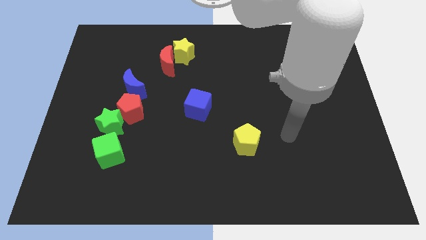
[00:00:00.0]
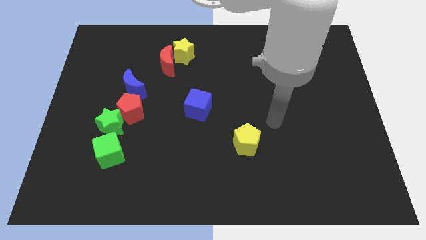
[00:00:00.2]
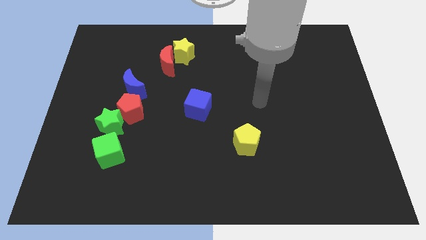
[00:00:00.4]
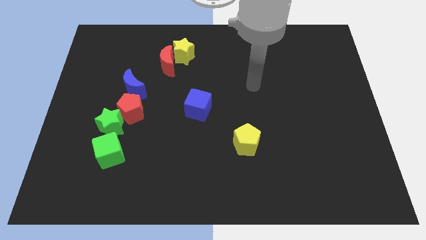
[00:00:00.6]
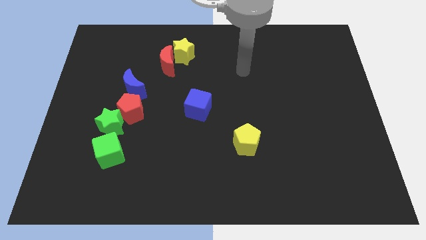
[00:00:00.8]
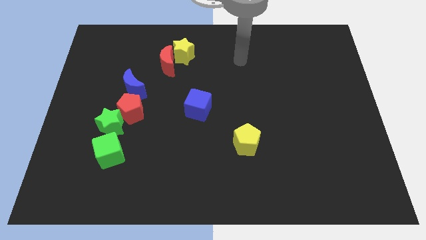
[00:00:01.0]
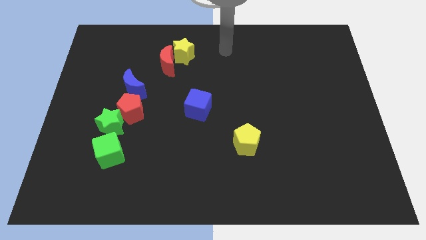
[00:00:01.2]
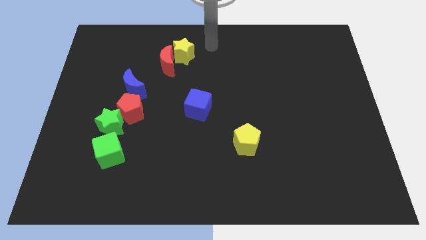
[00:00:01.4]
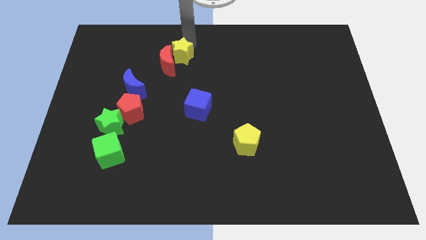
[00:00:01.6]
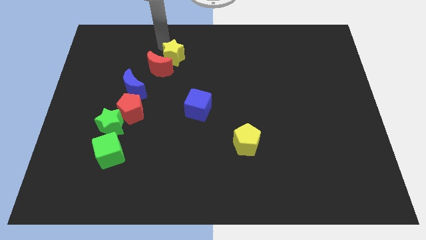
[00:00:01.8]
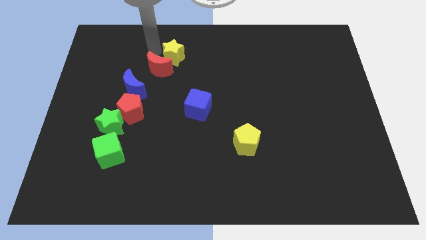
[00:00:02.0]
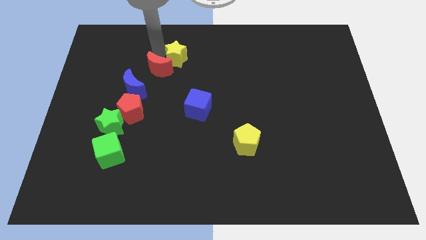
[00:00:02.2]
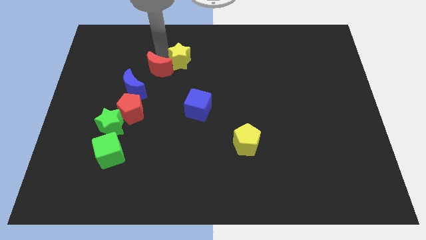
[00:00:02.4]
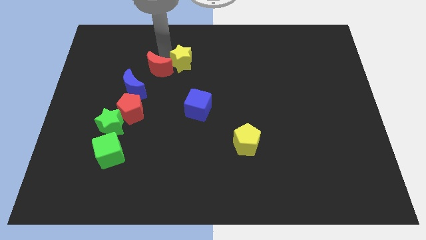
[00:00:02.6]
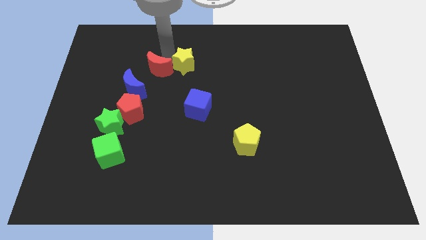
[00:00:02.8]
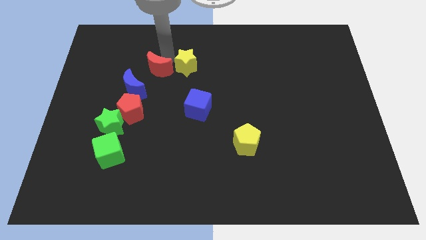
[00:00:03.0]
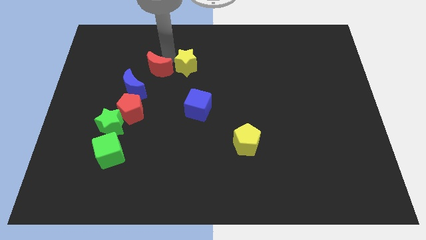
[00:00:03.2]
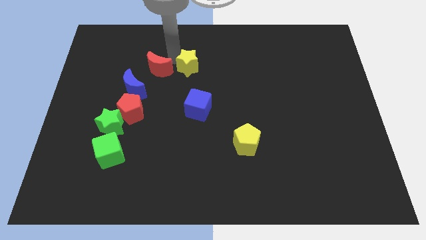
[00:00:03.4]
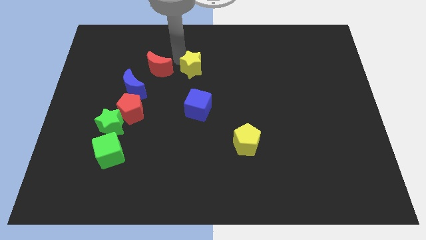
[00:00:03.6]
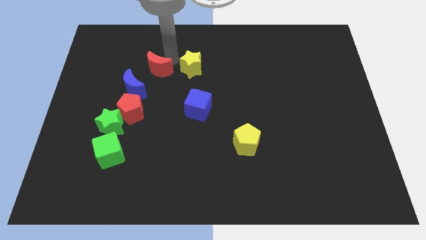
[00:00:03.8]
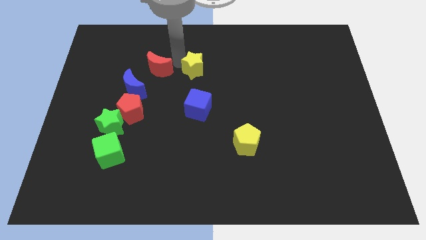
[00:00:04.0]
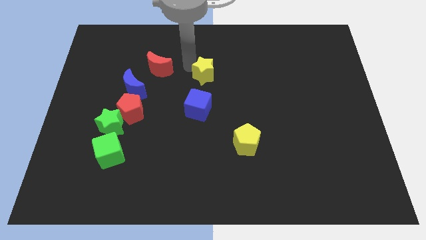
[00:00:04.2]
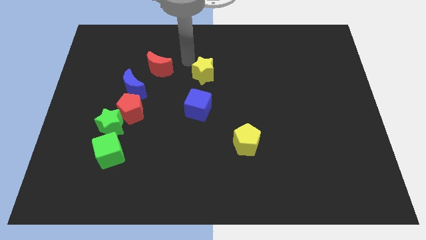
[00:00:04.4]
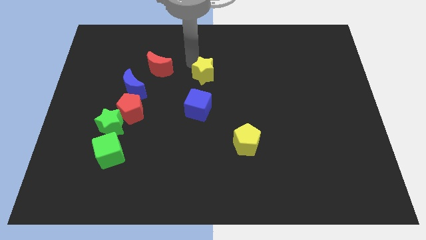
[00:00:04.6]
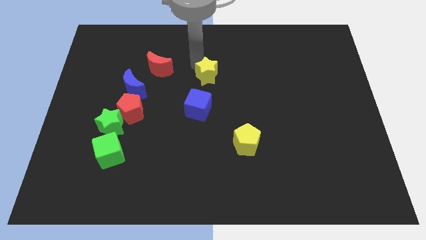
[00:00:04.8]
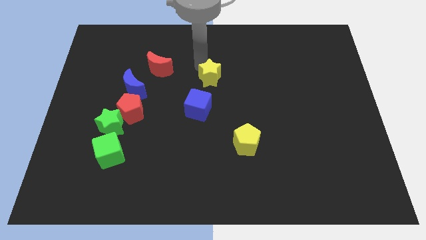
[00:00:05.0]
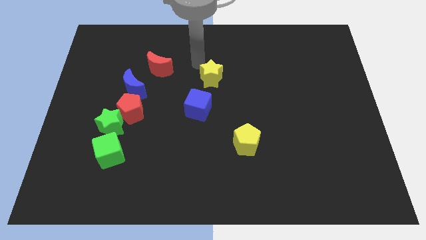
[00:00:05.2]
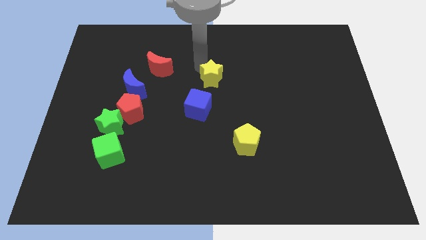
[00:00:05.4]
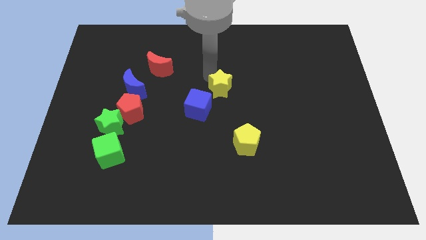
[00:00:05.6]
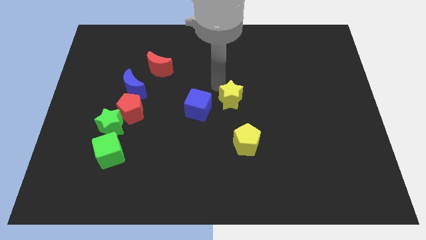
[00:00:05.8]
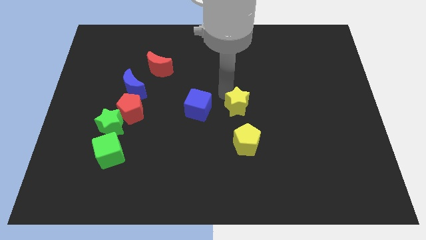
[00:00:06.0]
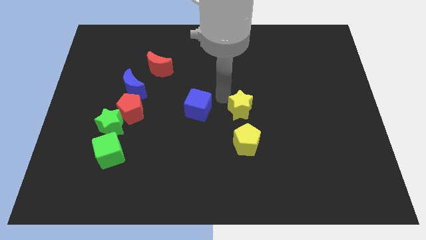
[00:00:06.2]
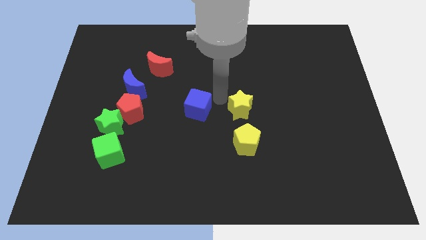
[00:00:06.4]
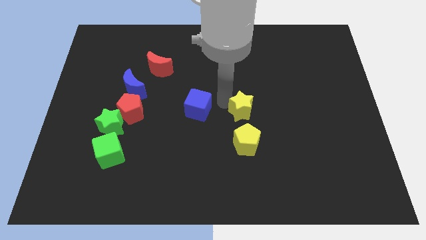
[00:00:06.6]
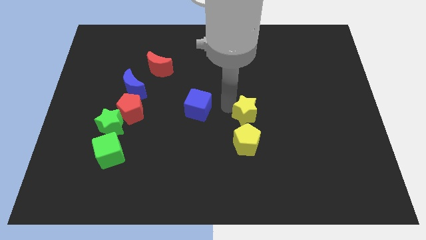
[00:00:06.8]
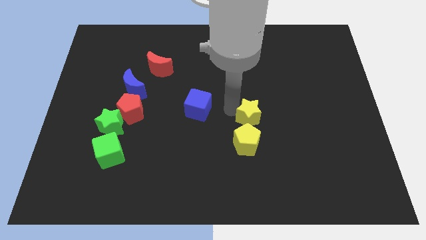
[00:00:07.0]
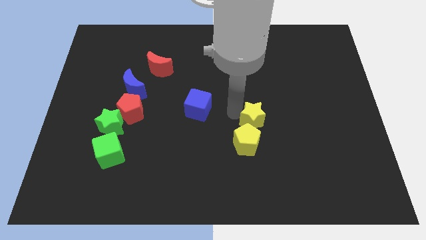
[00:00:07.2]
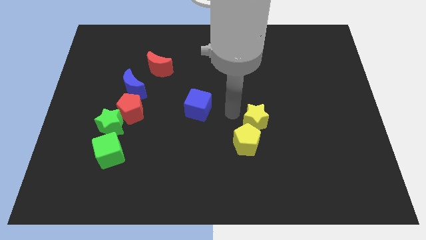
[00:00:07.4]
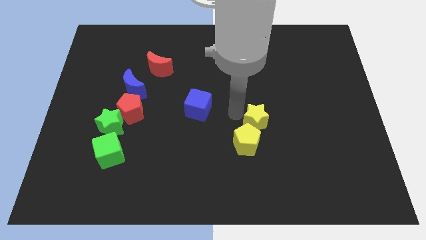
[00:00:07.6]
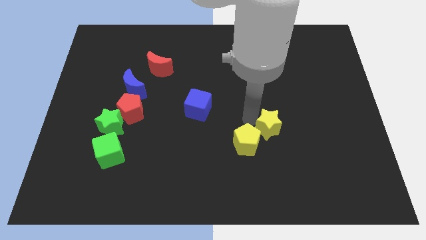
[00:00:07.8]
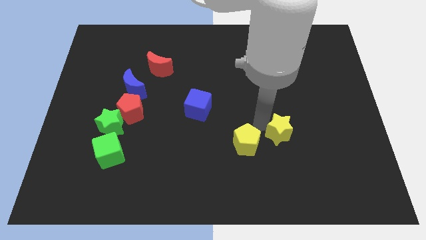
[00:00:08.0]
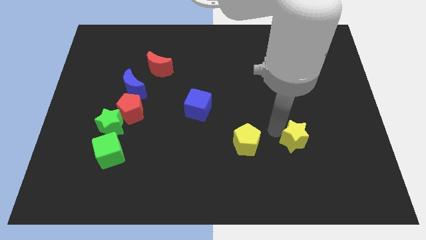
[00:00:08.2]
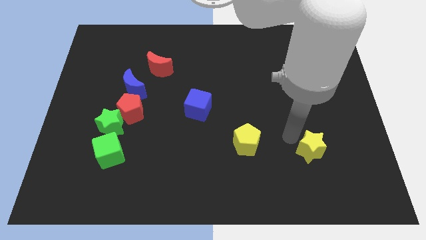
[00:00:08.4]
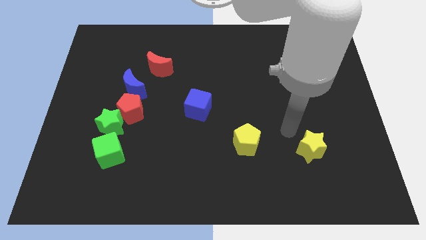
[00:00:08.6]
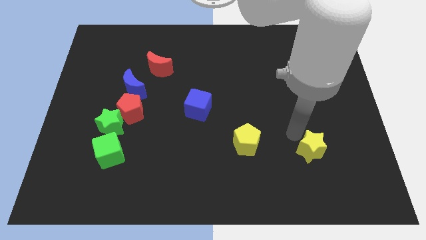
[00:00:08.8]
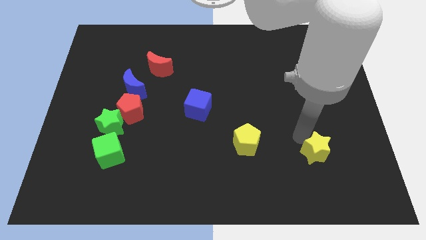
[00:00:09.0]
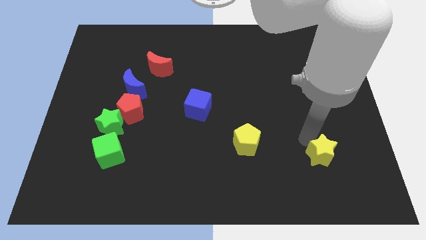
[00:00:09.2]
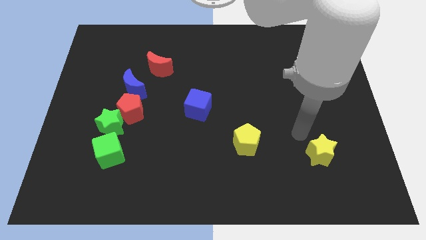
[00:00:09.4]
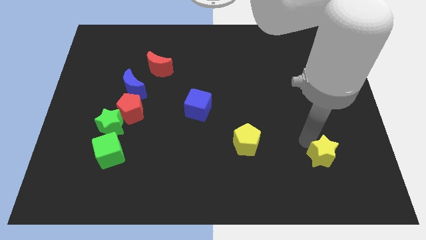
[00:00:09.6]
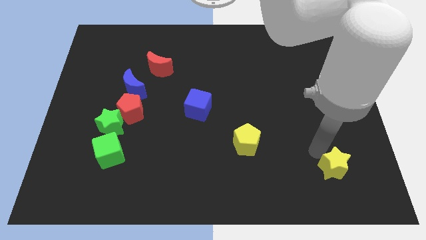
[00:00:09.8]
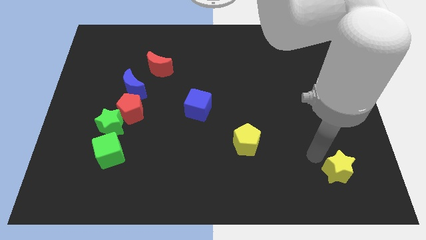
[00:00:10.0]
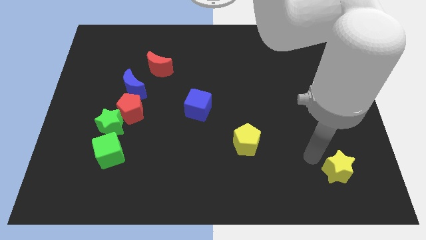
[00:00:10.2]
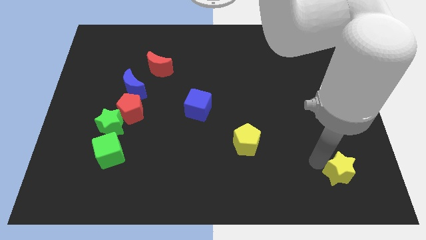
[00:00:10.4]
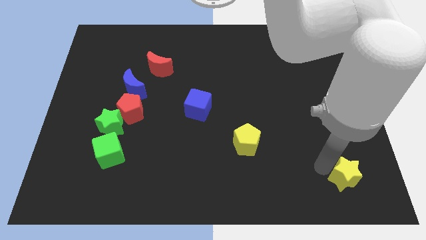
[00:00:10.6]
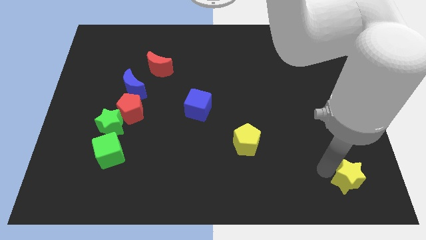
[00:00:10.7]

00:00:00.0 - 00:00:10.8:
push the yellow star to the bottom right of the board
